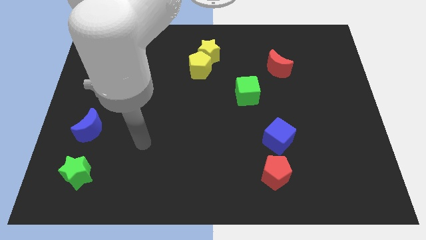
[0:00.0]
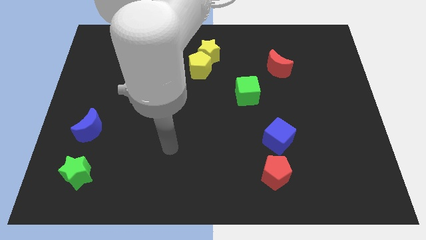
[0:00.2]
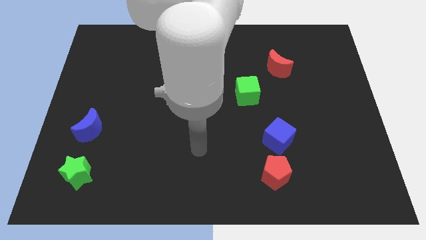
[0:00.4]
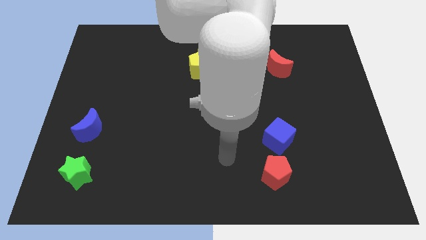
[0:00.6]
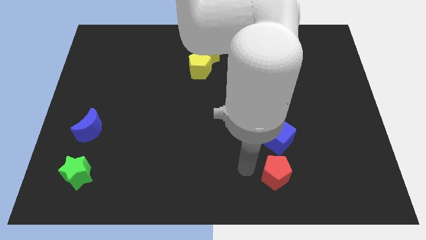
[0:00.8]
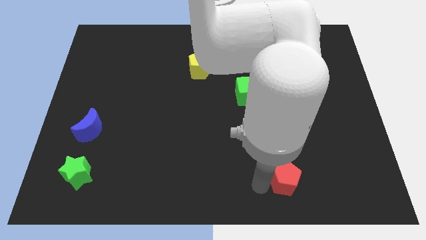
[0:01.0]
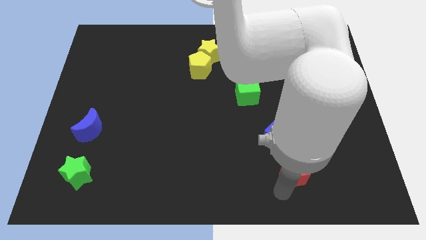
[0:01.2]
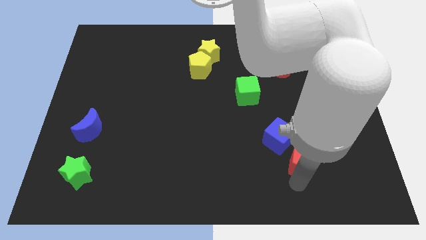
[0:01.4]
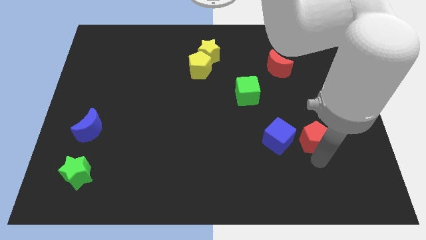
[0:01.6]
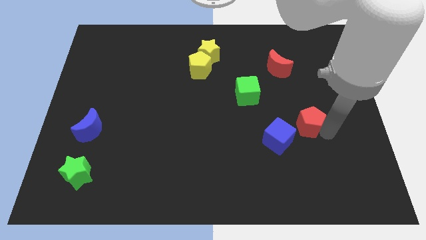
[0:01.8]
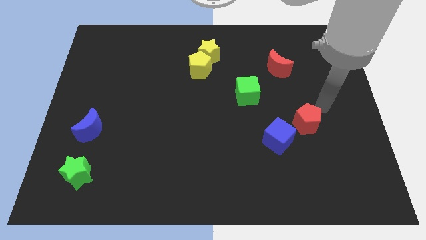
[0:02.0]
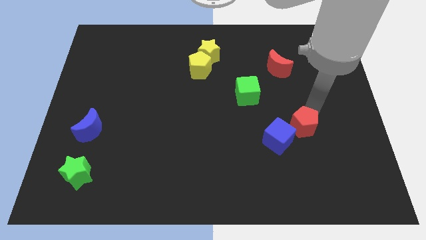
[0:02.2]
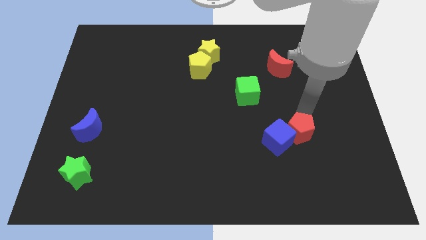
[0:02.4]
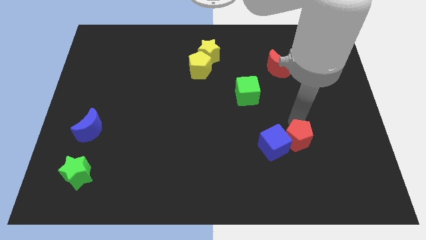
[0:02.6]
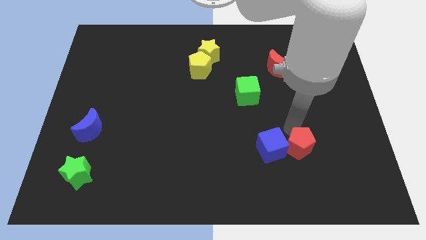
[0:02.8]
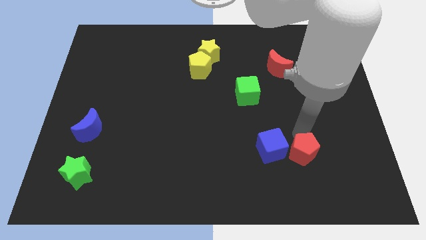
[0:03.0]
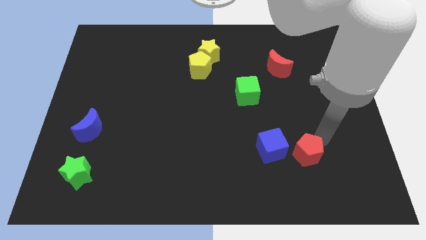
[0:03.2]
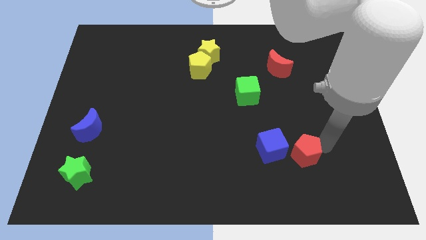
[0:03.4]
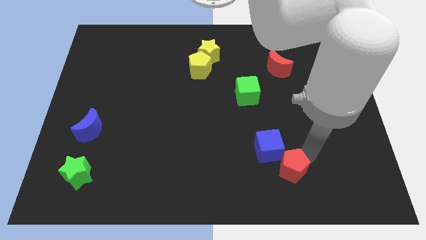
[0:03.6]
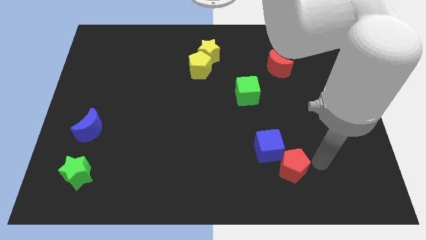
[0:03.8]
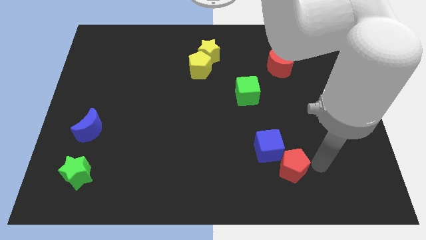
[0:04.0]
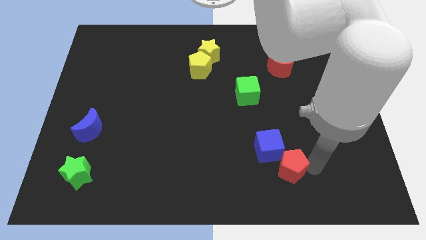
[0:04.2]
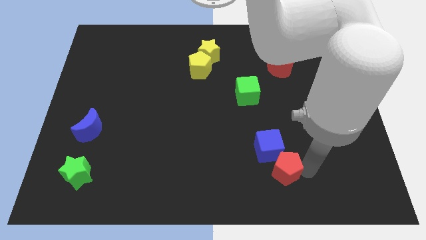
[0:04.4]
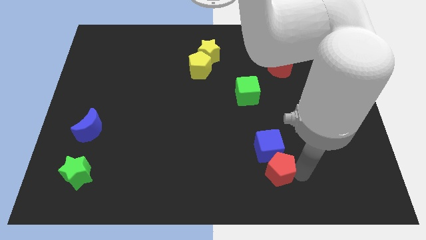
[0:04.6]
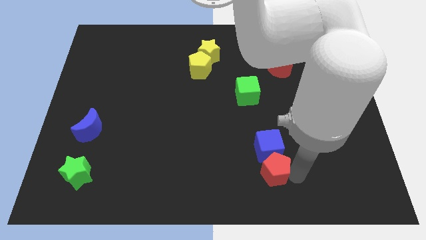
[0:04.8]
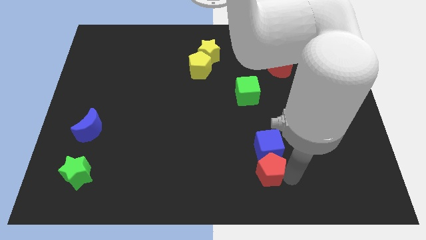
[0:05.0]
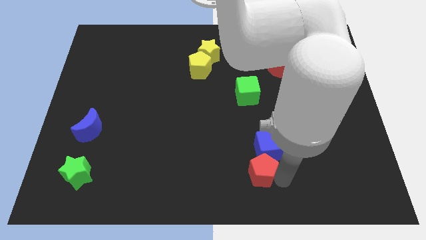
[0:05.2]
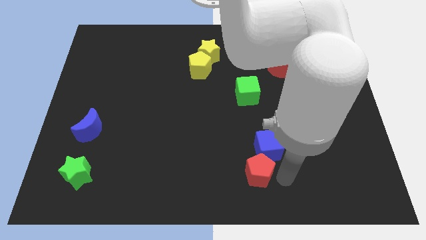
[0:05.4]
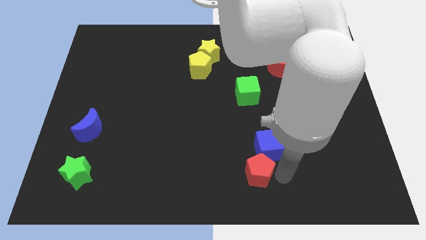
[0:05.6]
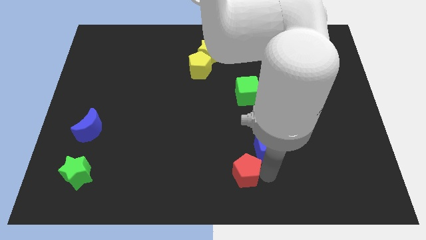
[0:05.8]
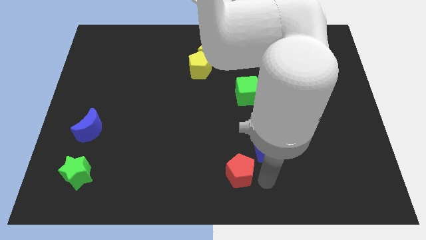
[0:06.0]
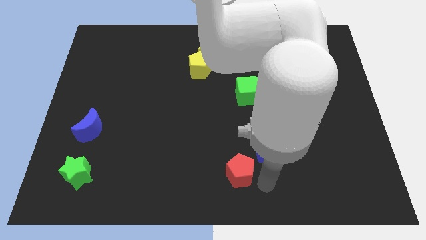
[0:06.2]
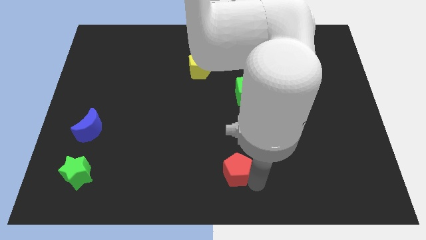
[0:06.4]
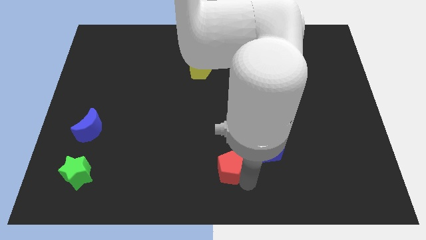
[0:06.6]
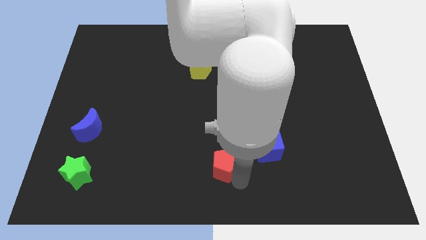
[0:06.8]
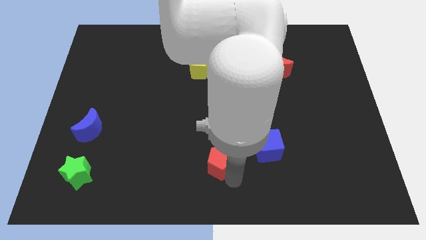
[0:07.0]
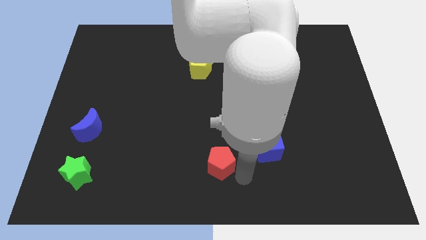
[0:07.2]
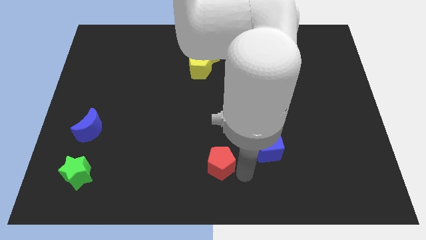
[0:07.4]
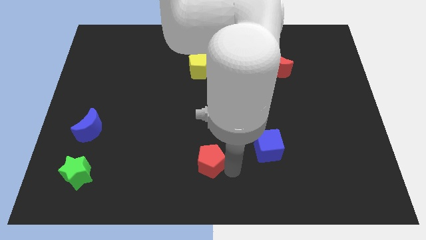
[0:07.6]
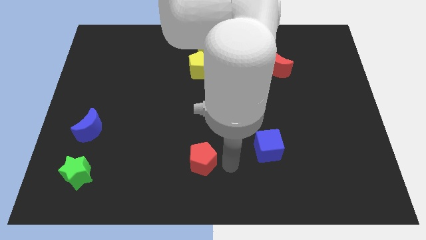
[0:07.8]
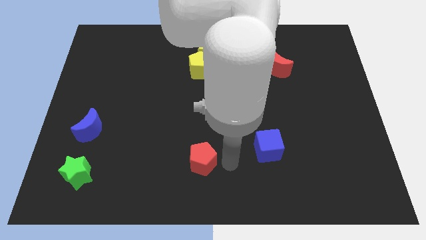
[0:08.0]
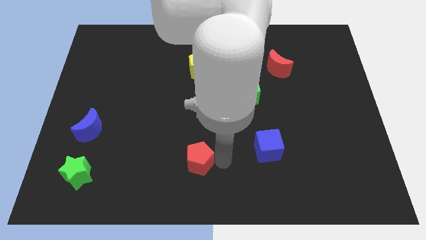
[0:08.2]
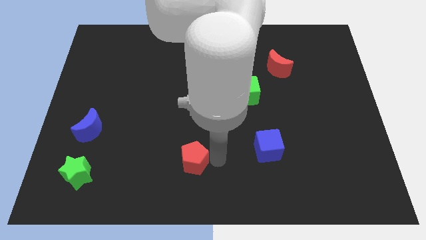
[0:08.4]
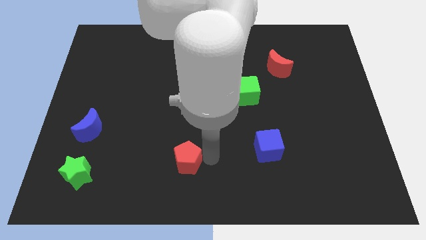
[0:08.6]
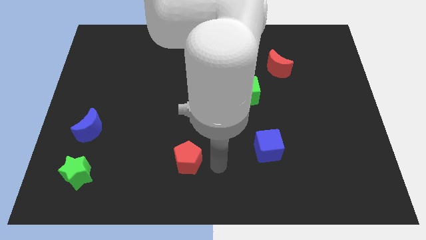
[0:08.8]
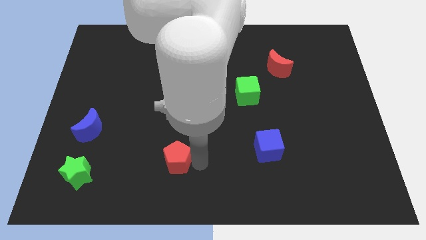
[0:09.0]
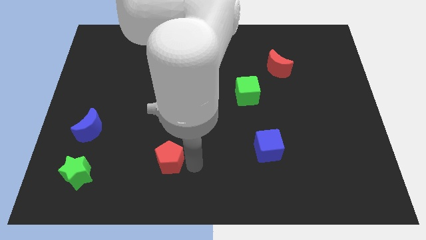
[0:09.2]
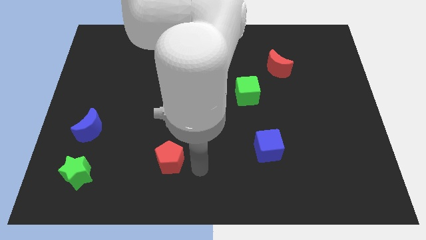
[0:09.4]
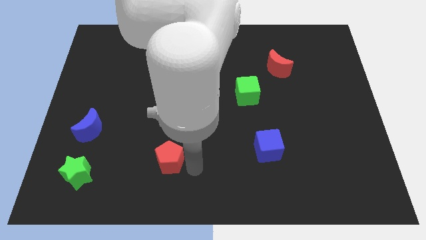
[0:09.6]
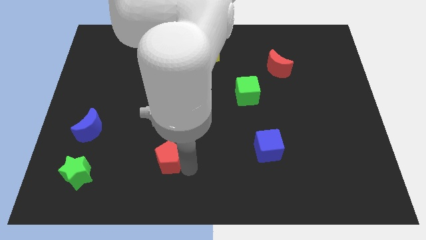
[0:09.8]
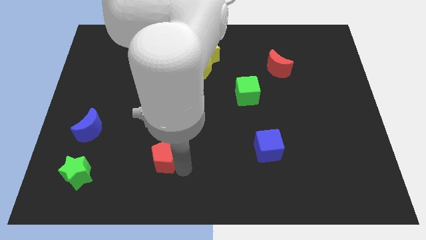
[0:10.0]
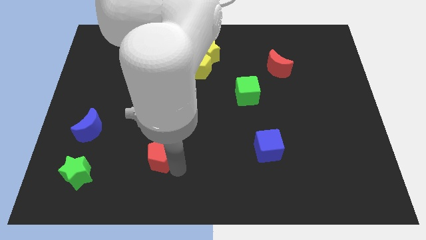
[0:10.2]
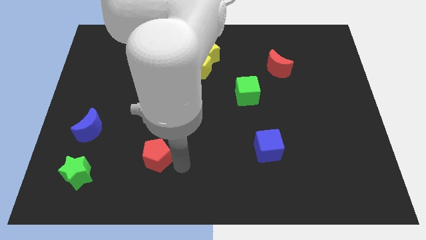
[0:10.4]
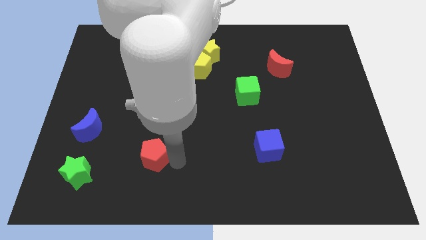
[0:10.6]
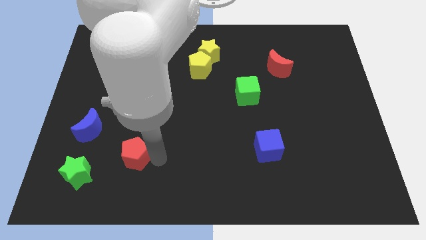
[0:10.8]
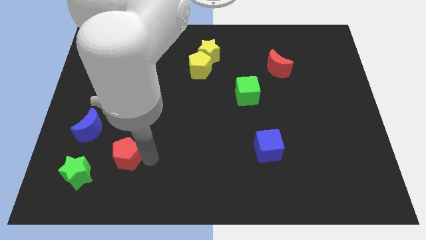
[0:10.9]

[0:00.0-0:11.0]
put the red pentagon diagonally down and to the right of the blue moon

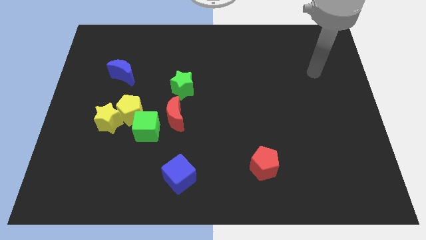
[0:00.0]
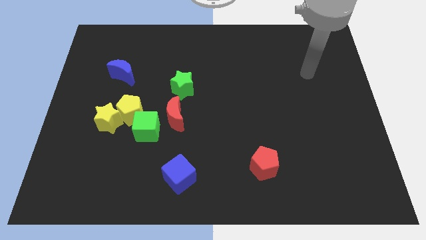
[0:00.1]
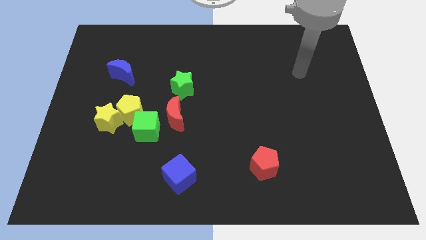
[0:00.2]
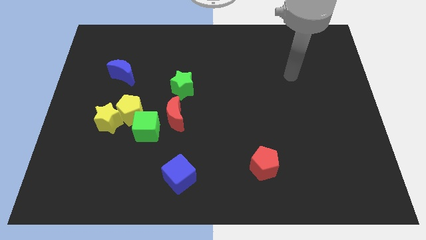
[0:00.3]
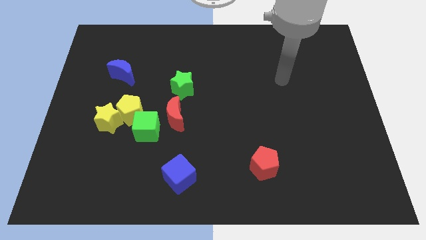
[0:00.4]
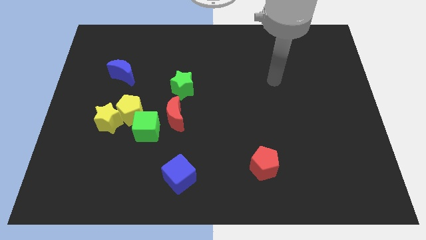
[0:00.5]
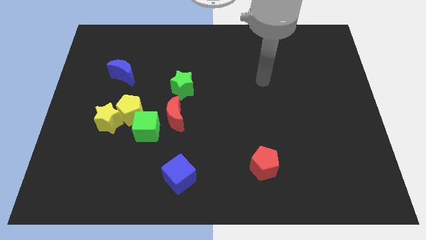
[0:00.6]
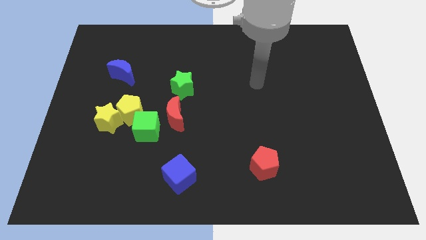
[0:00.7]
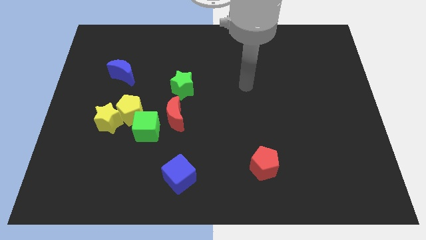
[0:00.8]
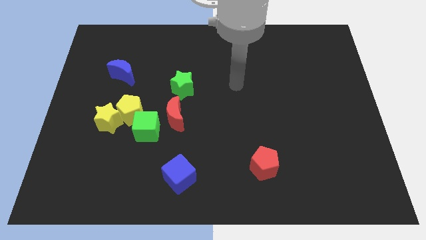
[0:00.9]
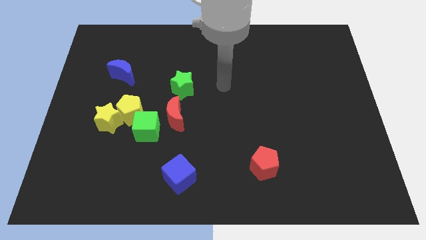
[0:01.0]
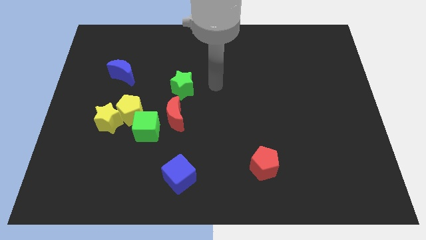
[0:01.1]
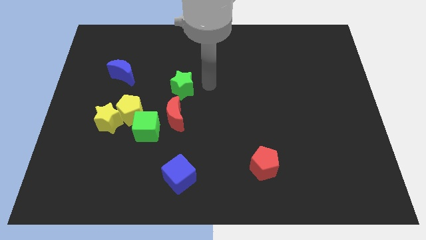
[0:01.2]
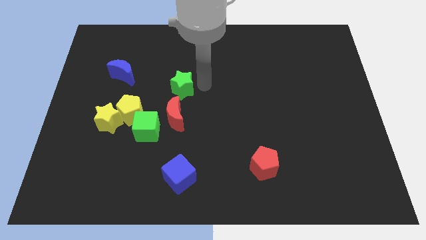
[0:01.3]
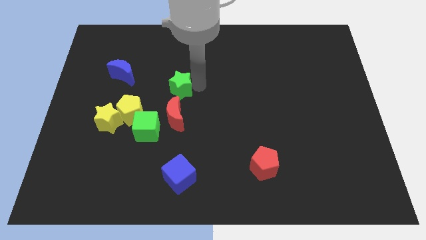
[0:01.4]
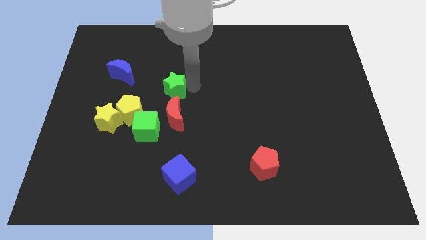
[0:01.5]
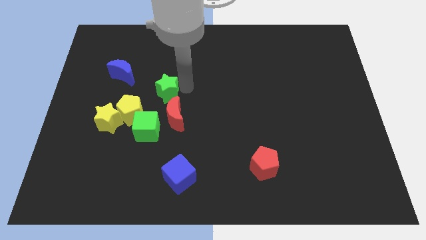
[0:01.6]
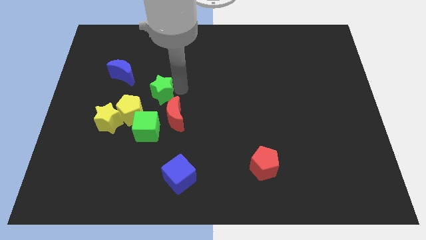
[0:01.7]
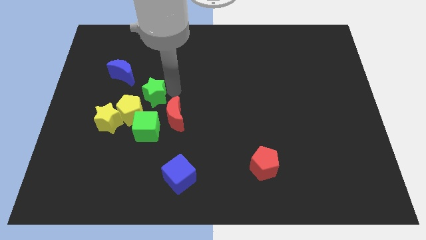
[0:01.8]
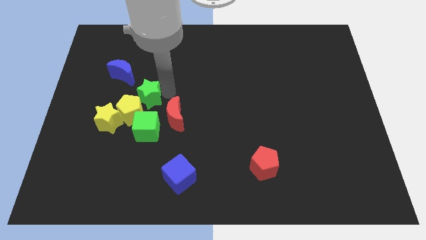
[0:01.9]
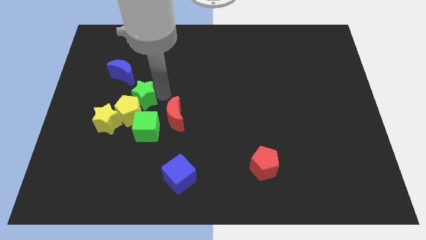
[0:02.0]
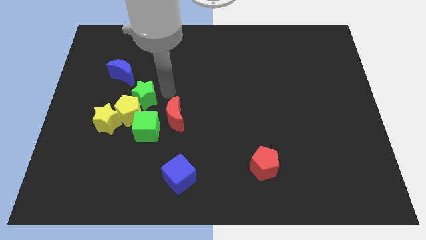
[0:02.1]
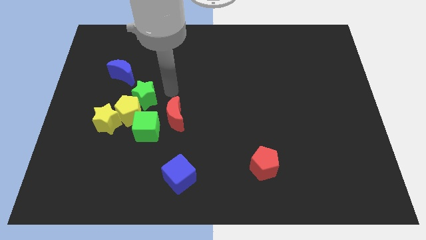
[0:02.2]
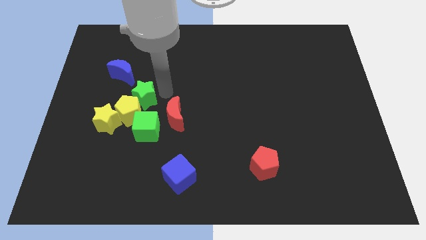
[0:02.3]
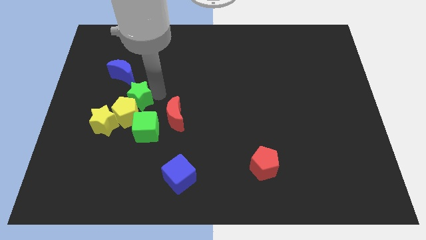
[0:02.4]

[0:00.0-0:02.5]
put the green star to the top left of the green cube
